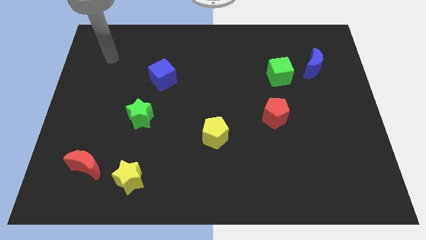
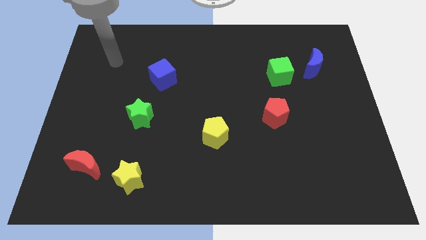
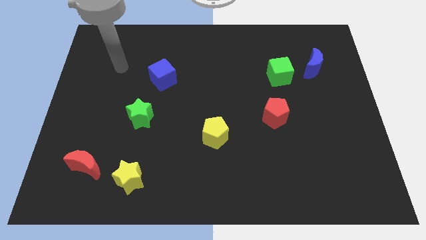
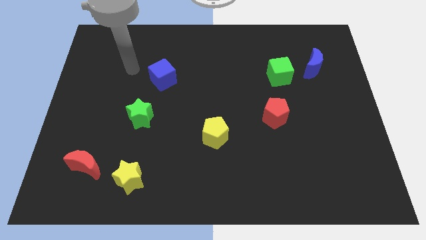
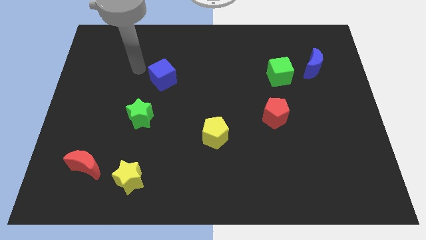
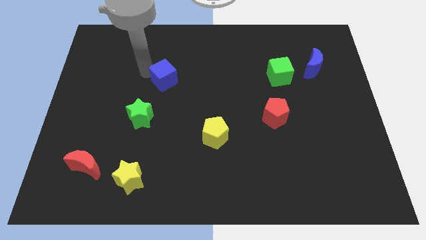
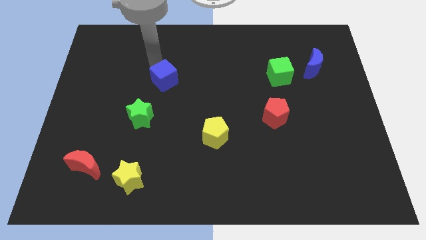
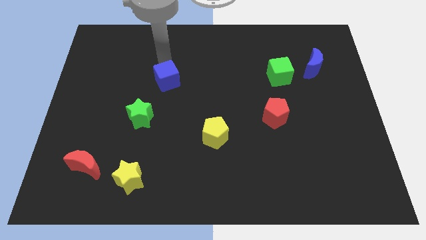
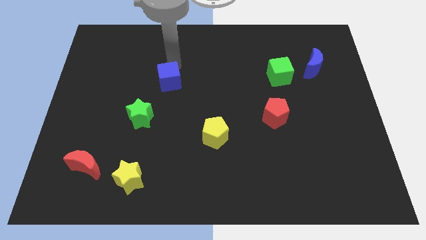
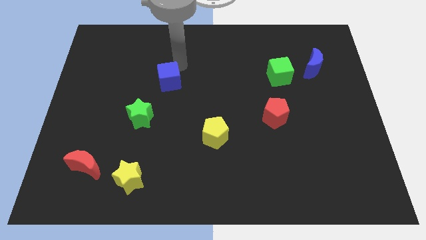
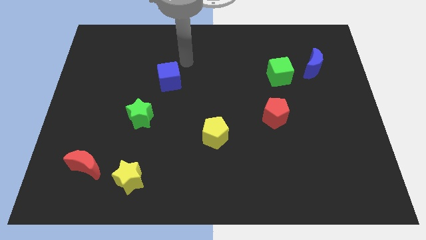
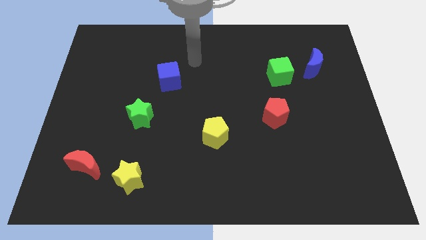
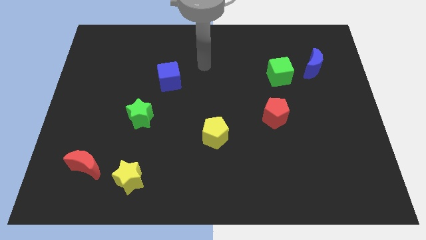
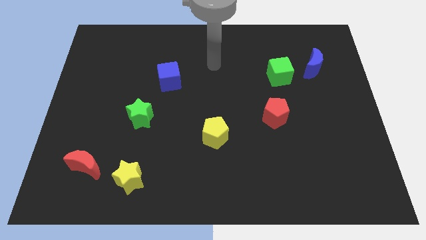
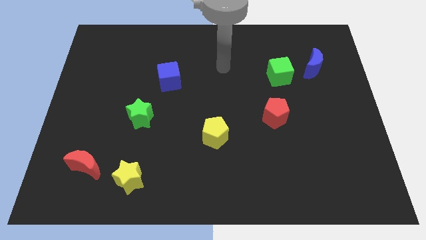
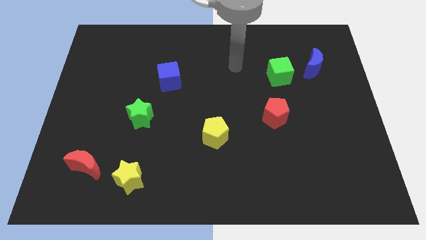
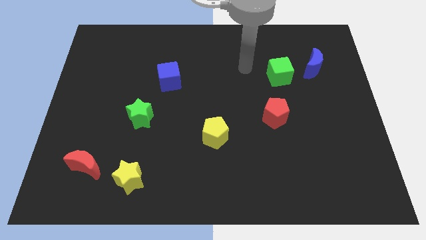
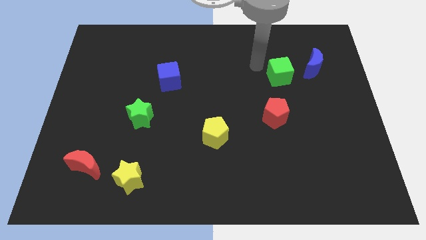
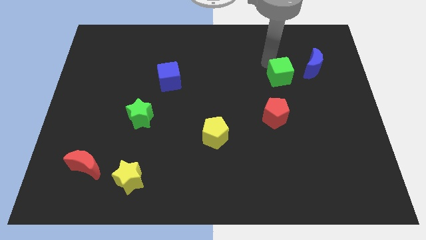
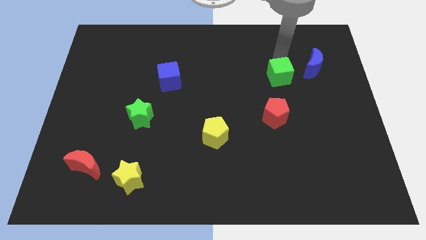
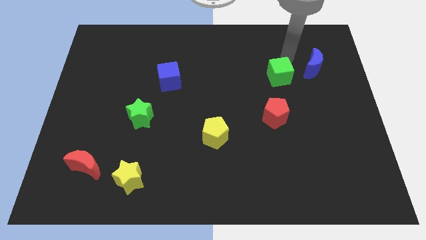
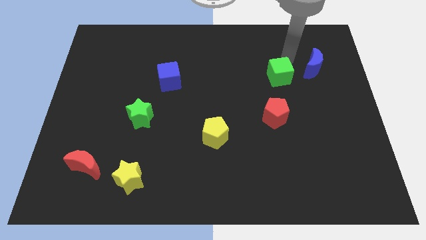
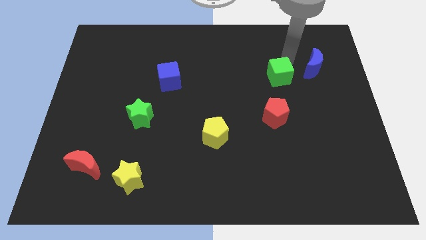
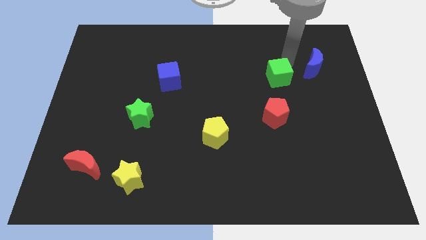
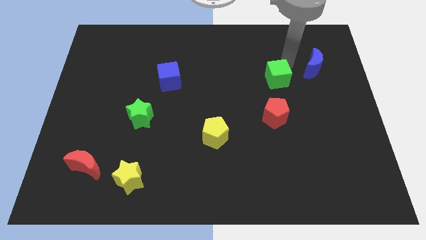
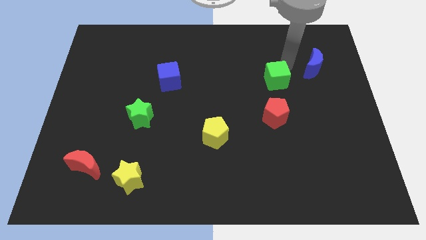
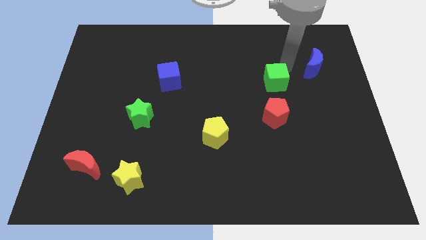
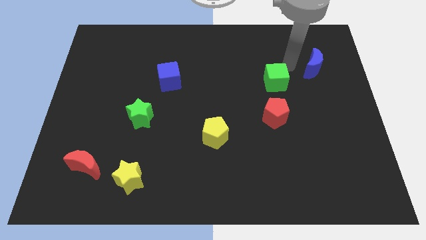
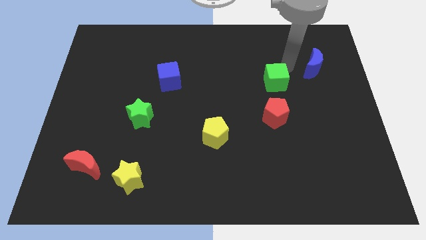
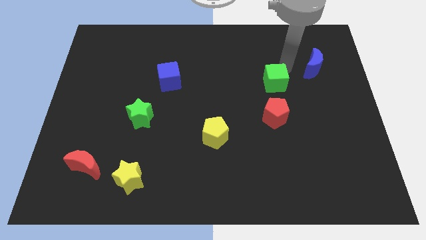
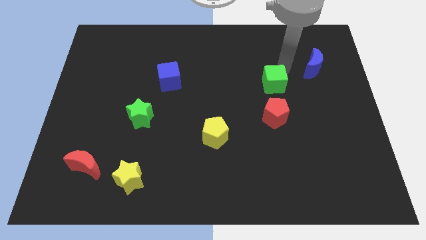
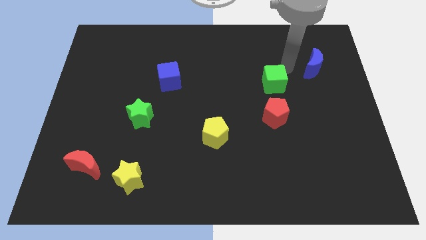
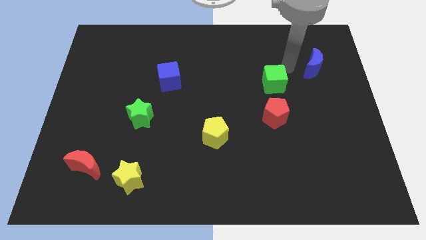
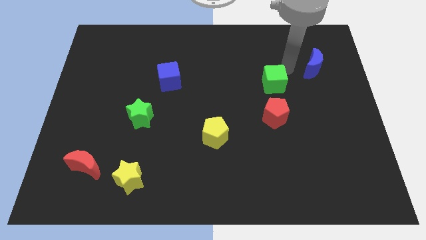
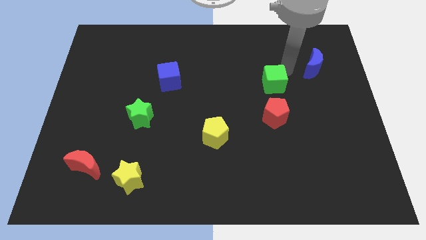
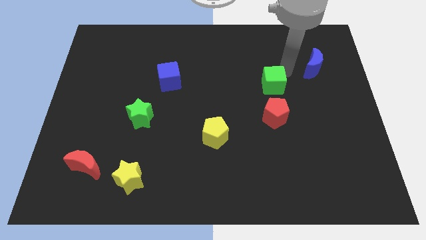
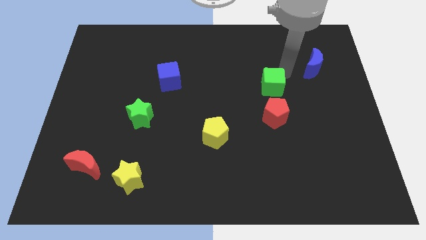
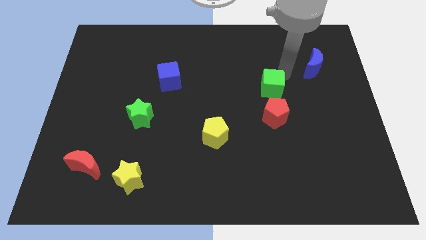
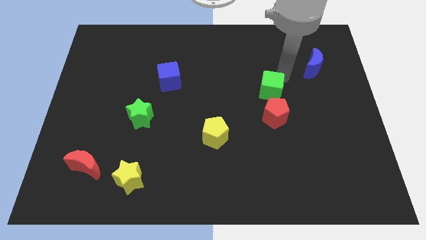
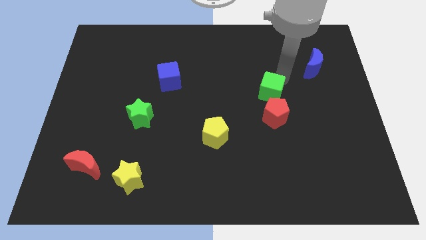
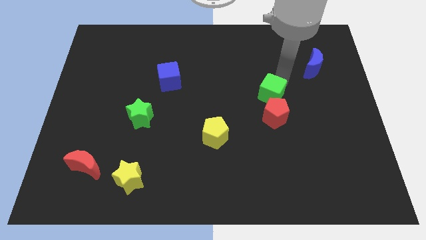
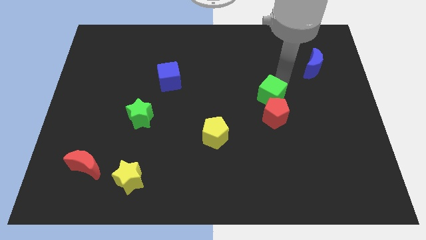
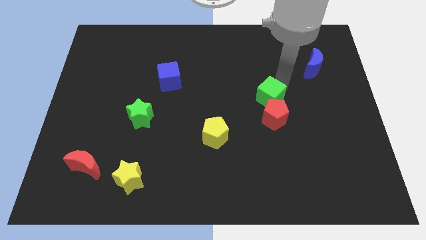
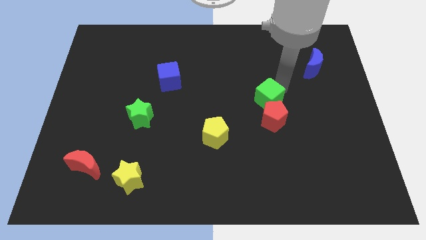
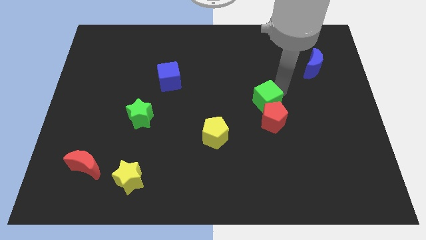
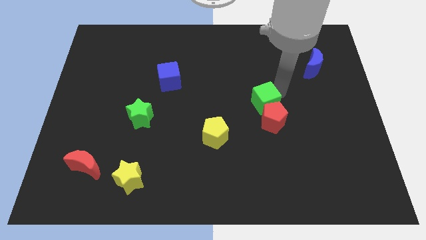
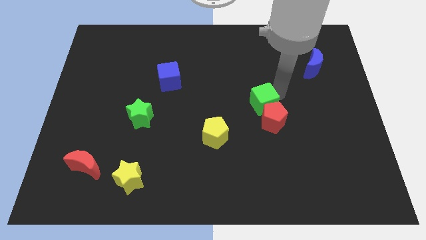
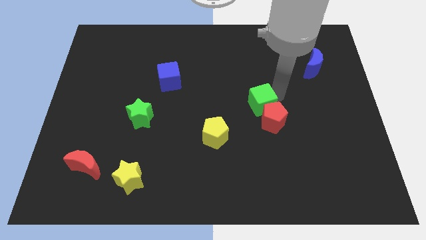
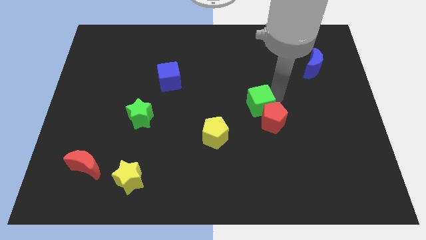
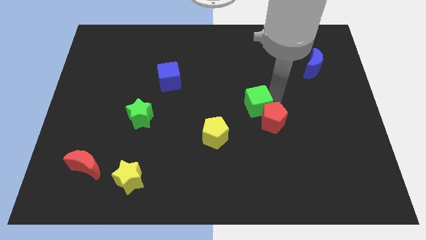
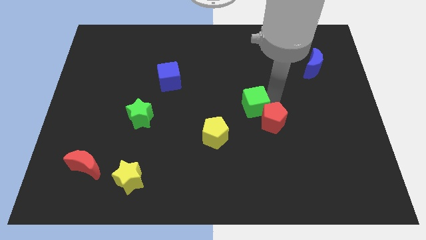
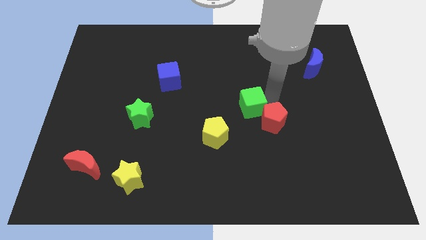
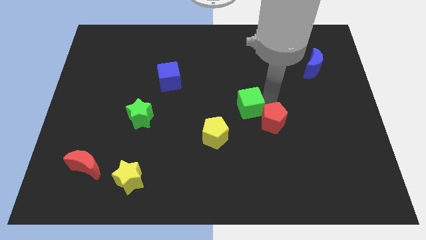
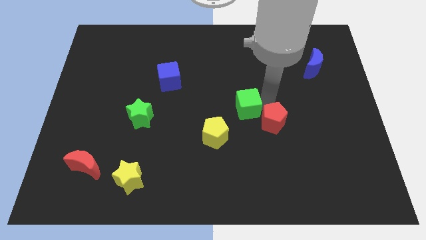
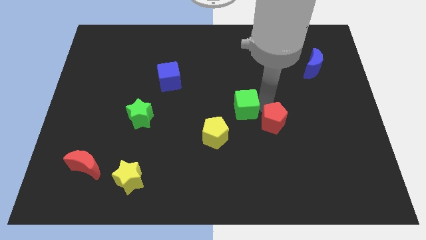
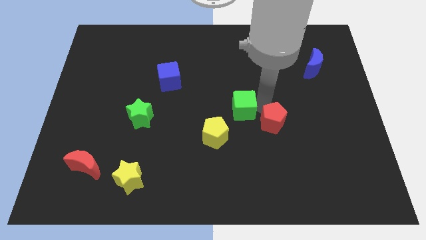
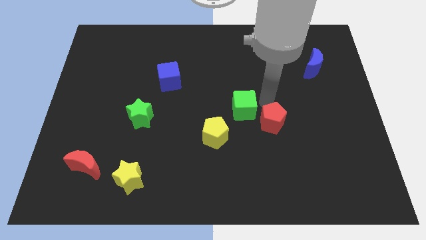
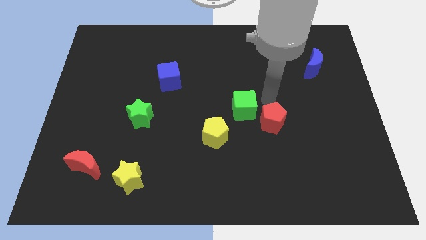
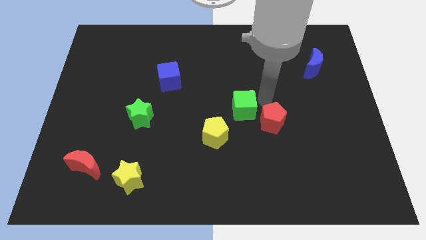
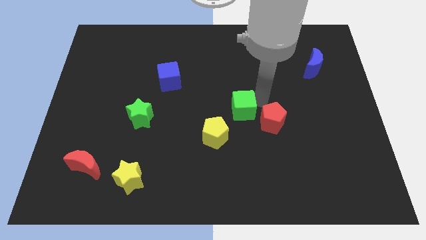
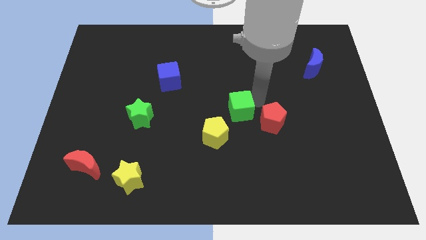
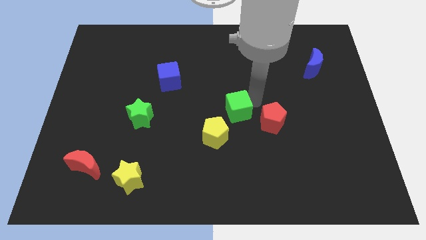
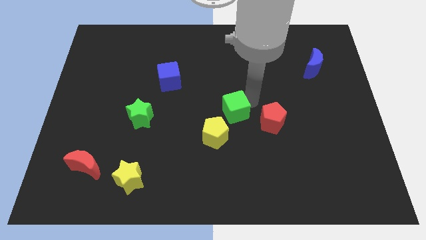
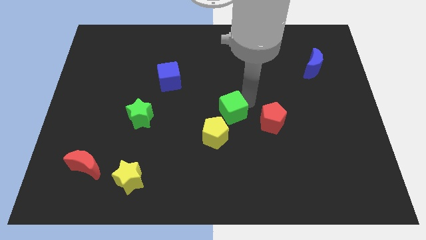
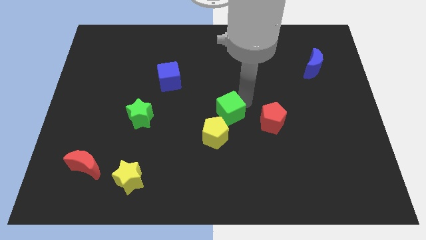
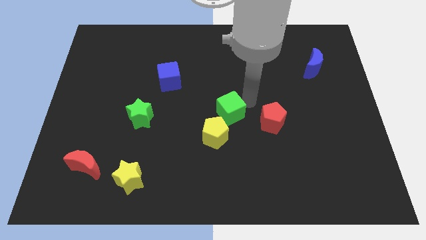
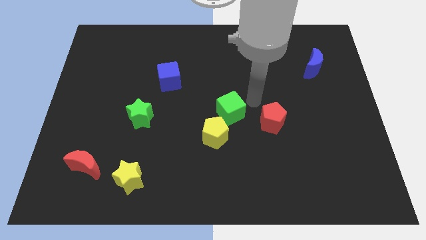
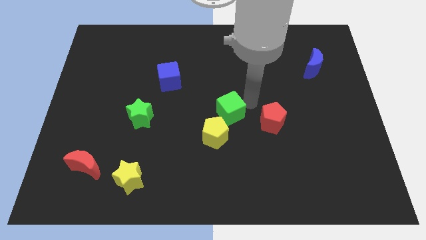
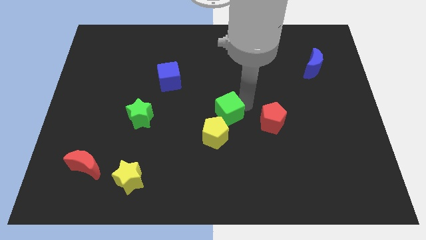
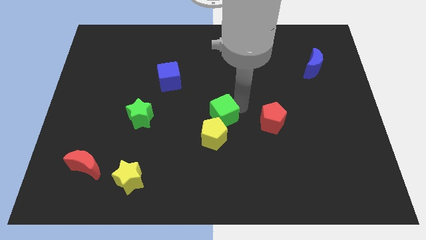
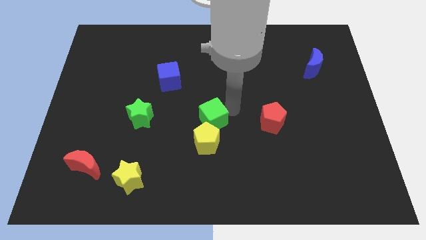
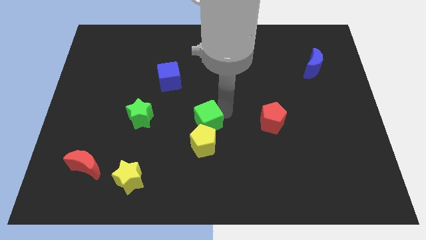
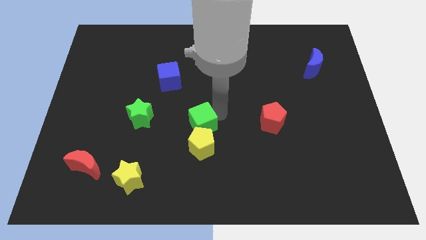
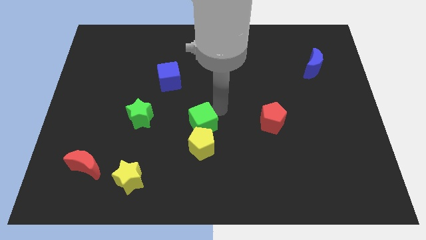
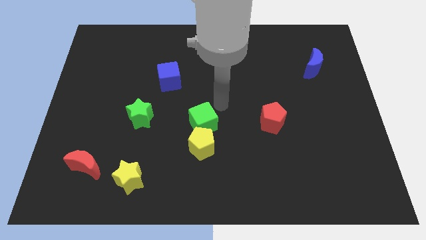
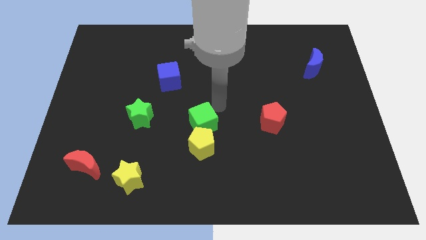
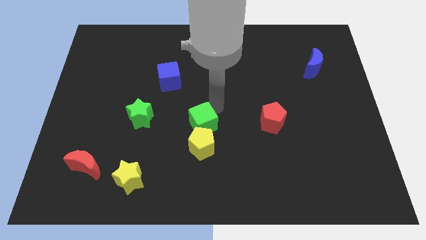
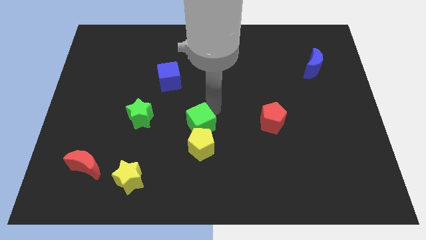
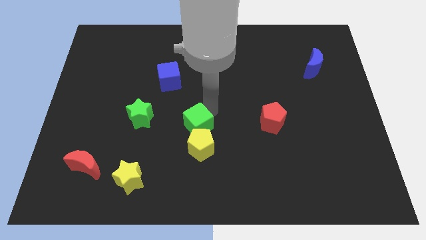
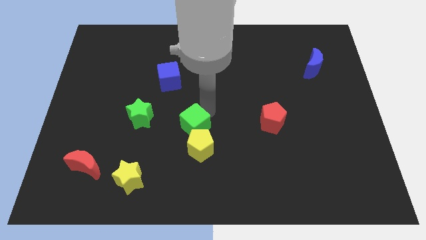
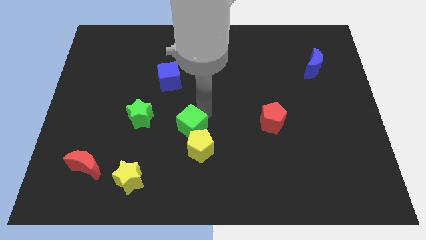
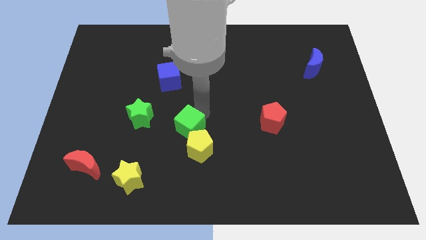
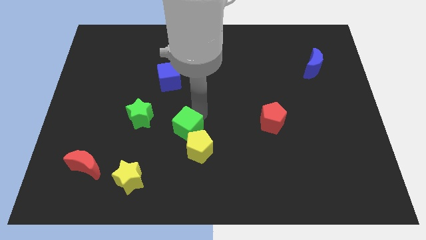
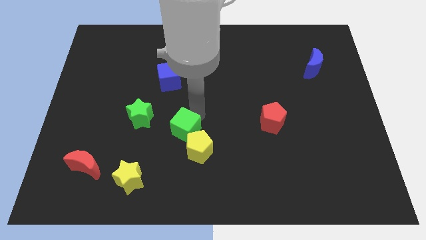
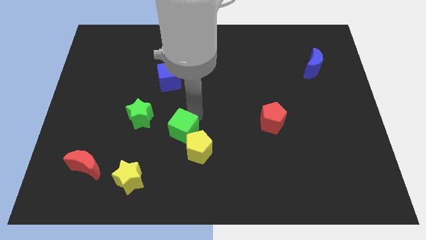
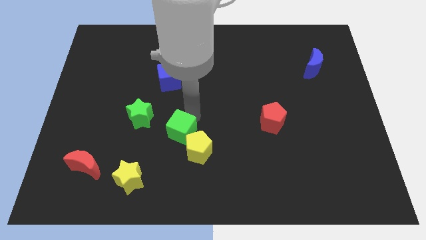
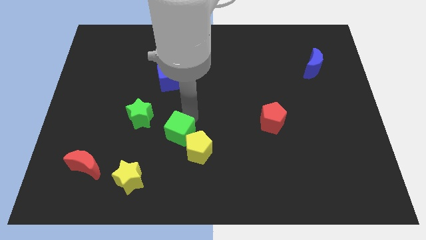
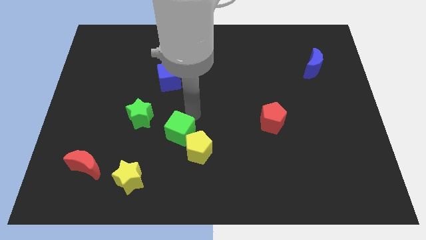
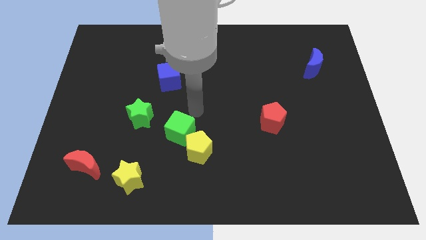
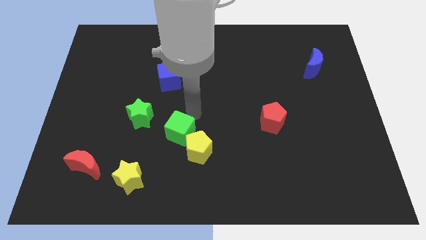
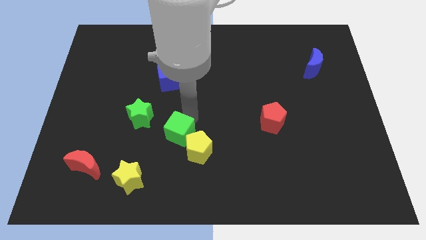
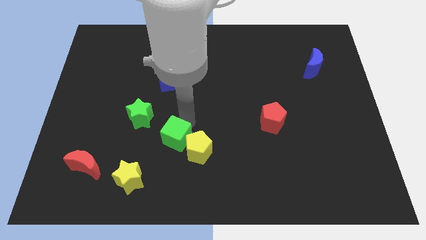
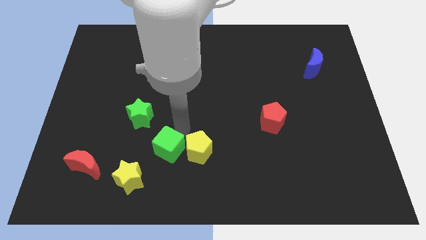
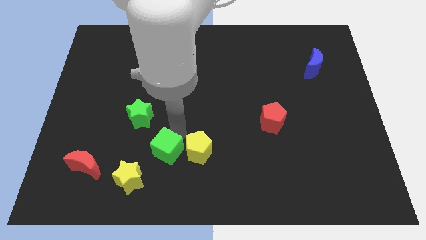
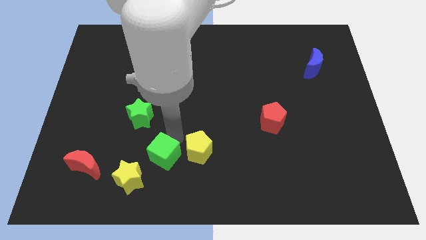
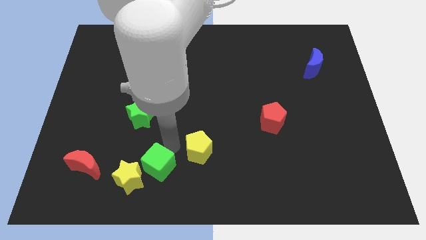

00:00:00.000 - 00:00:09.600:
push the green cube towards the yellow star
